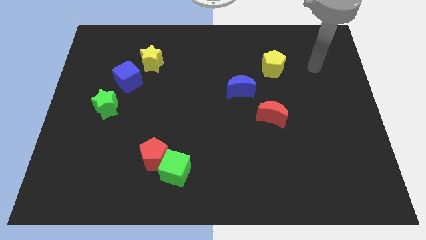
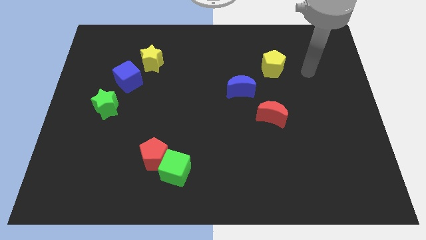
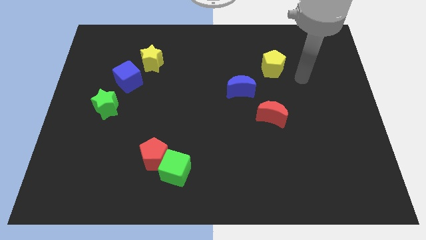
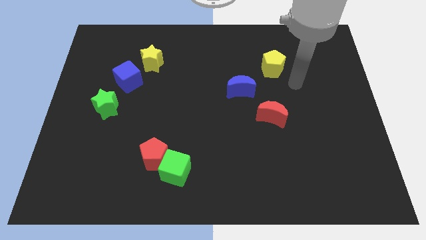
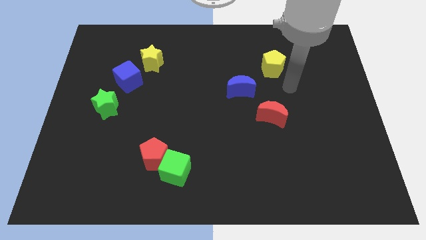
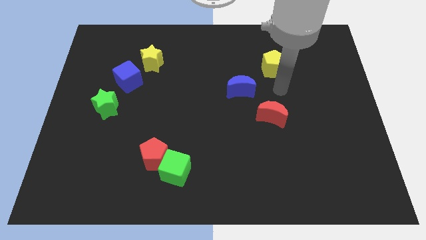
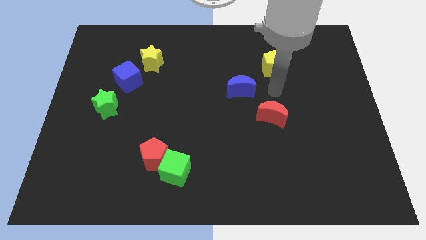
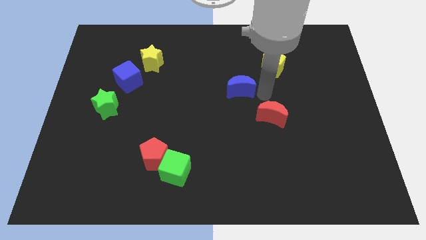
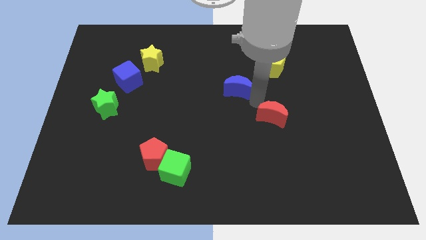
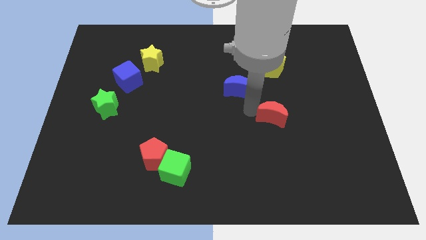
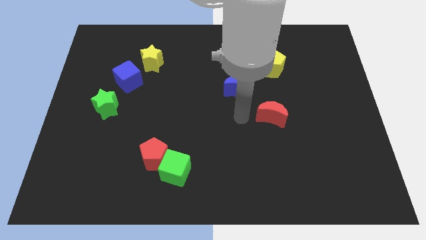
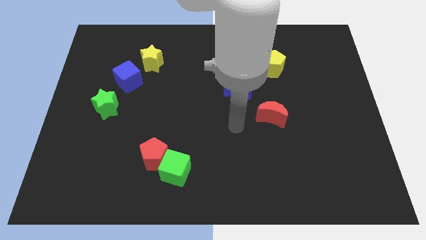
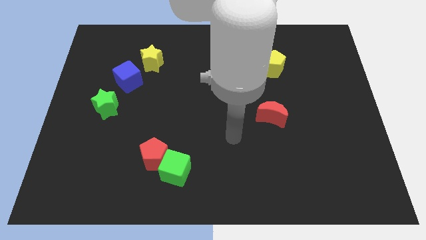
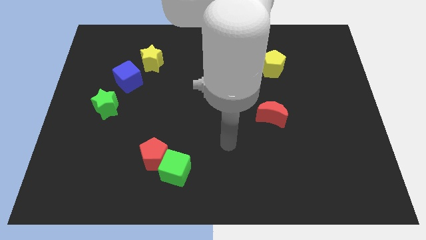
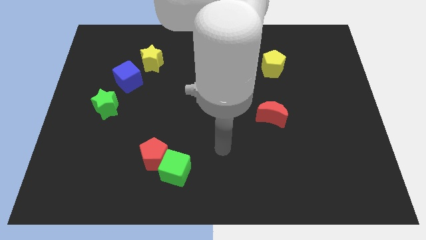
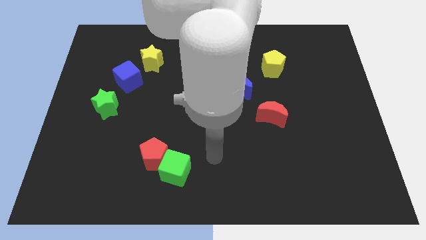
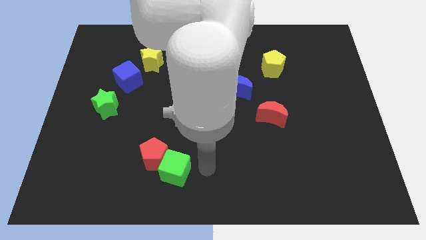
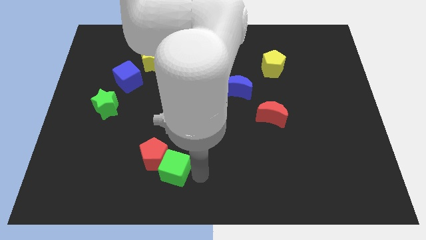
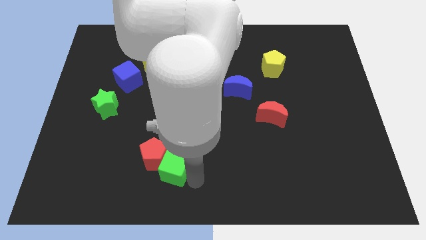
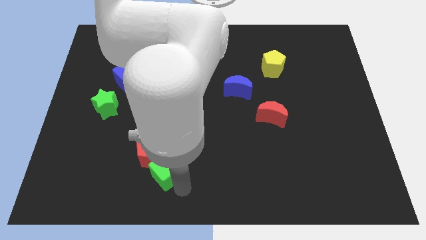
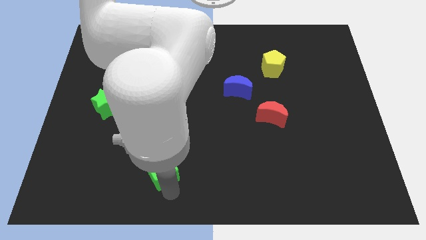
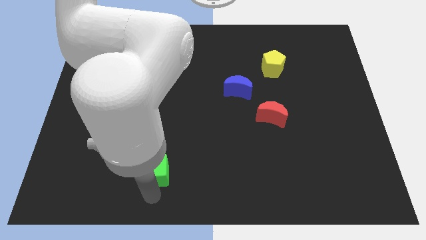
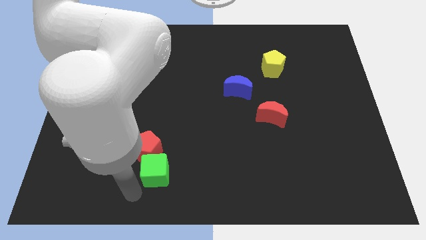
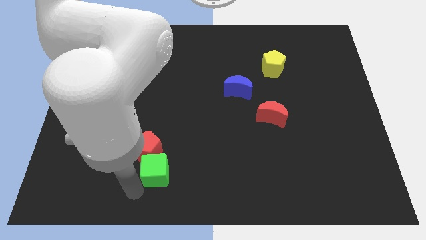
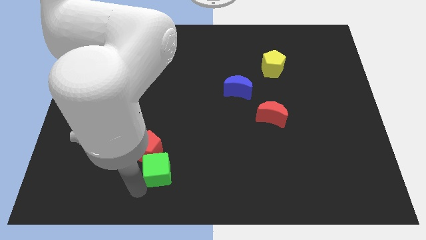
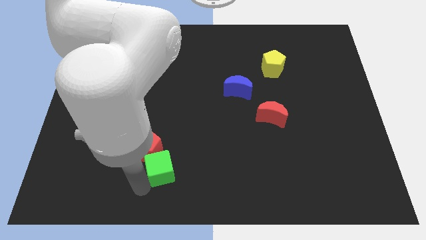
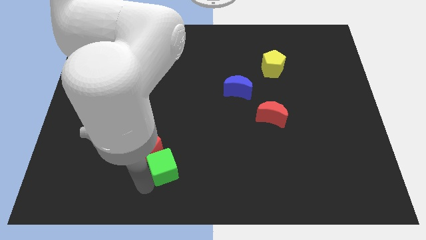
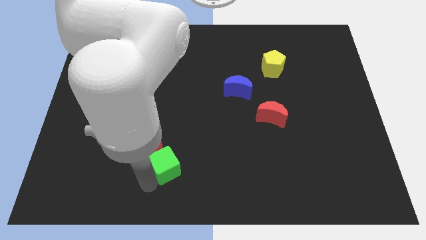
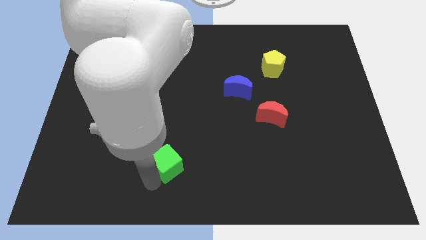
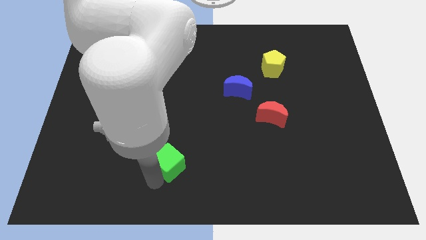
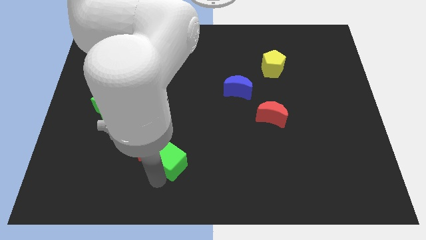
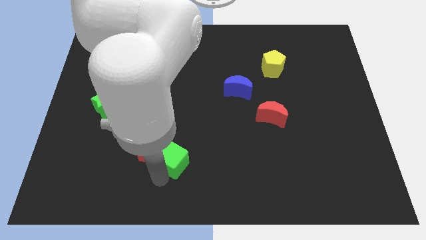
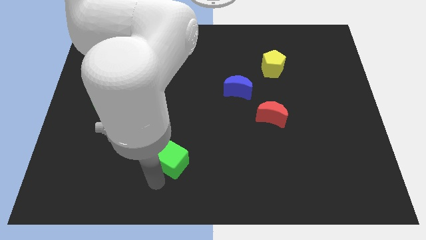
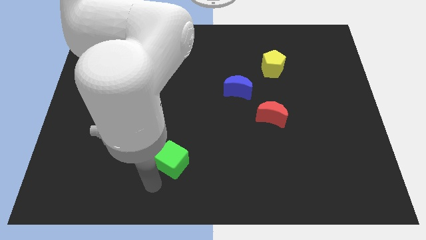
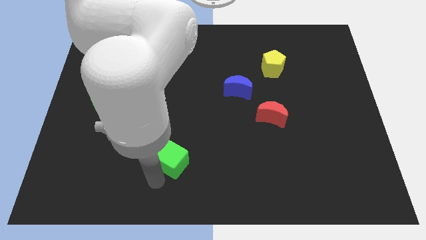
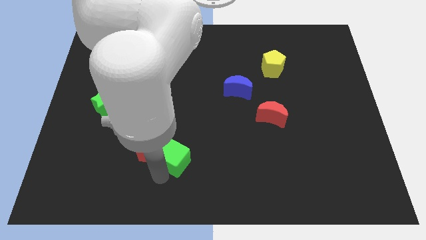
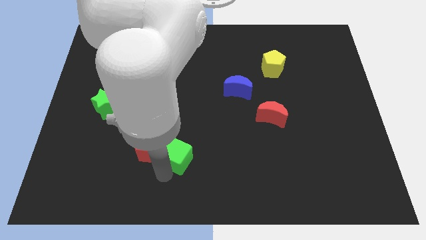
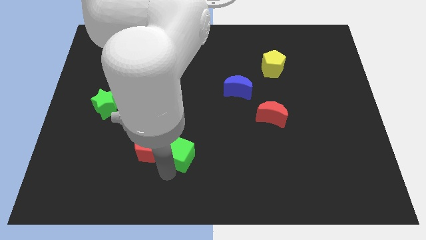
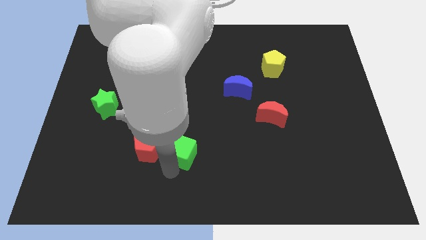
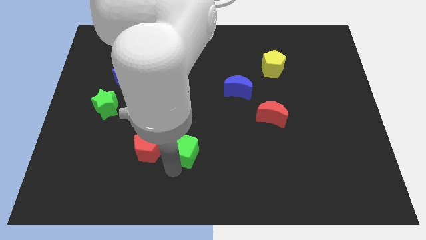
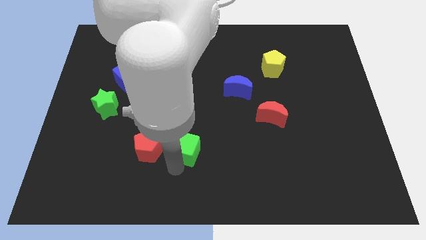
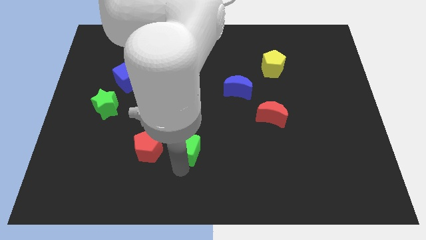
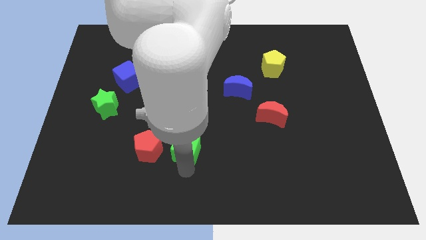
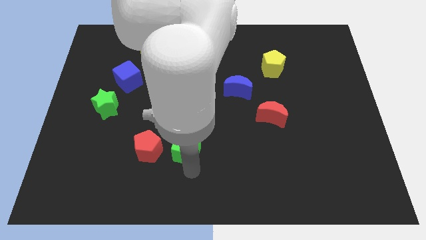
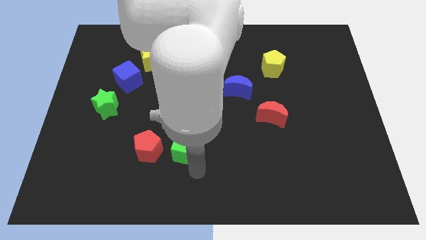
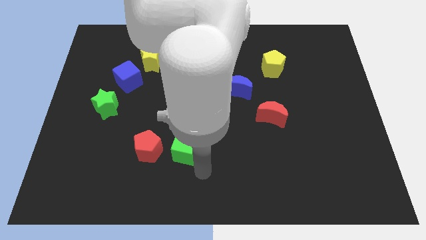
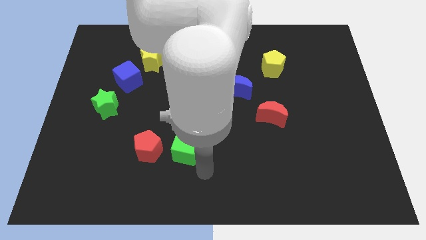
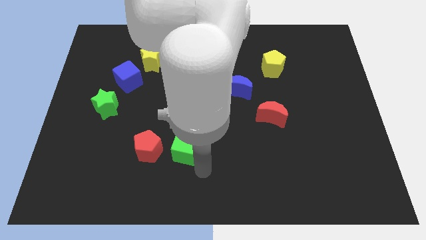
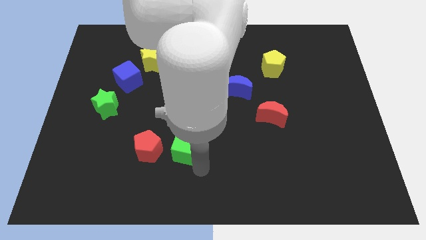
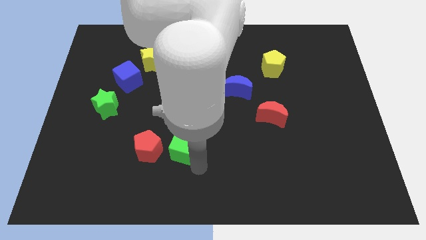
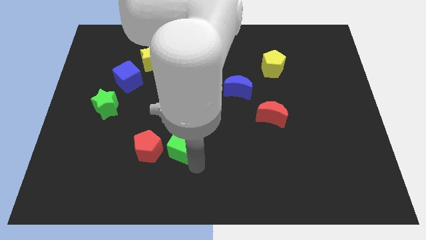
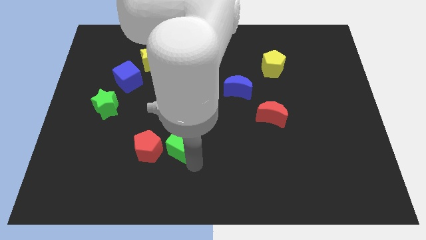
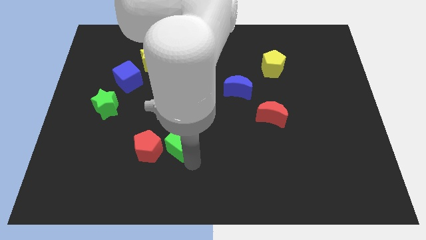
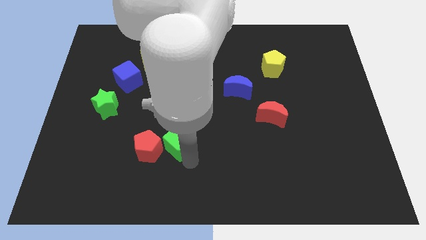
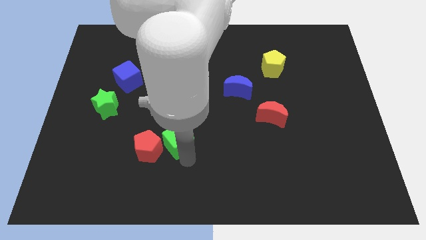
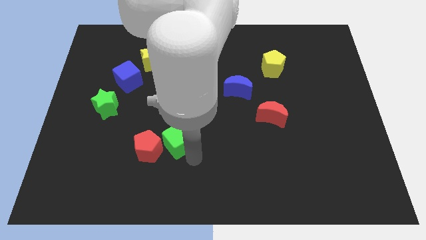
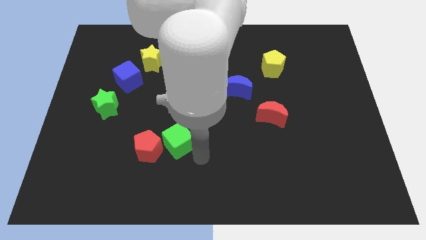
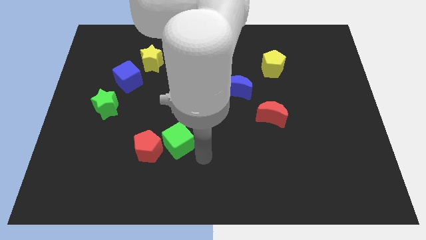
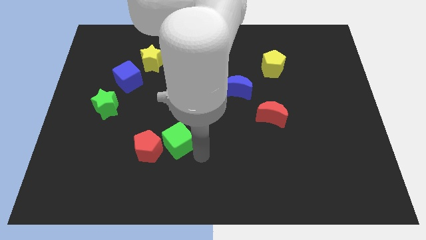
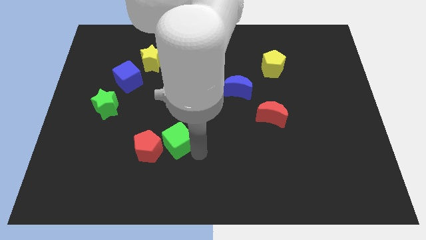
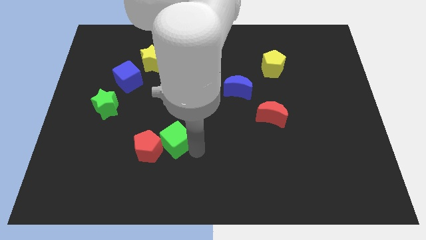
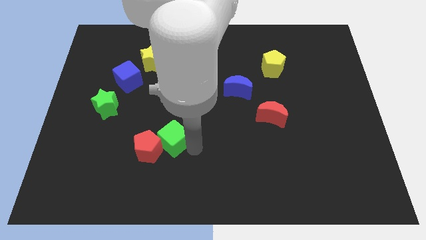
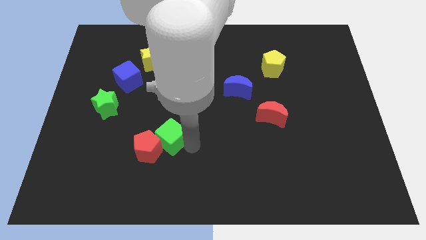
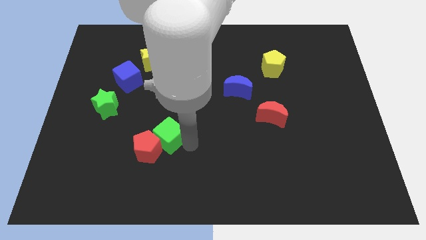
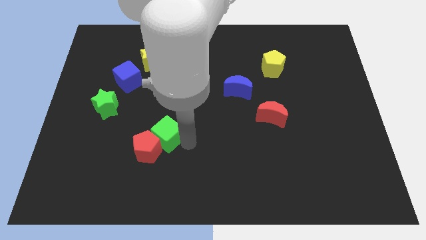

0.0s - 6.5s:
slide the green cube somewhat up and left diagonally

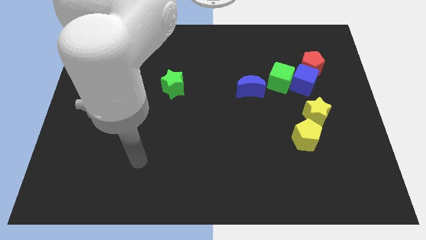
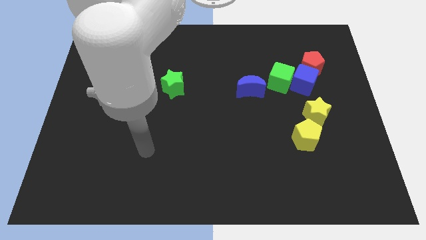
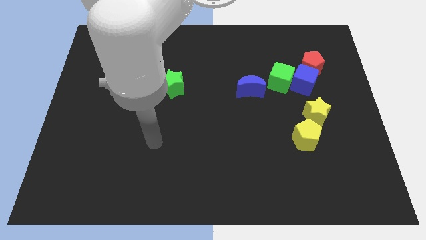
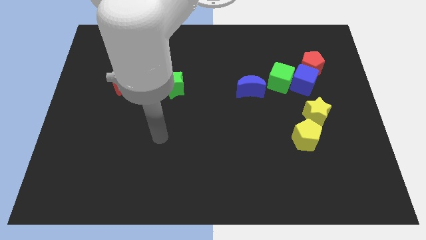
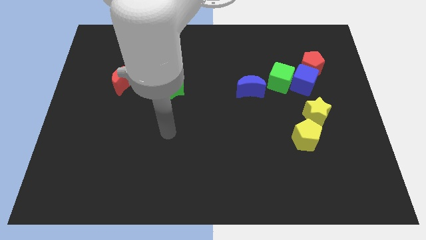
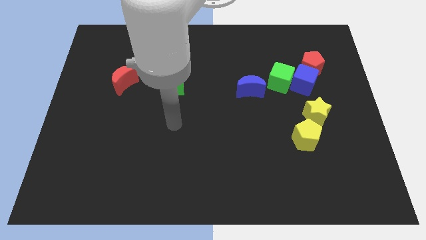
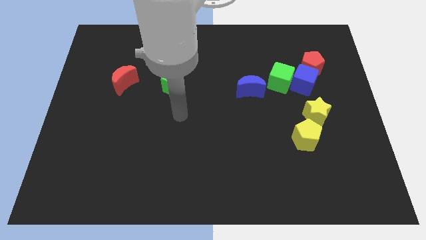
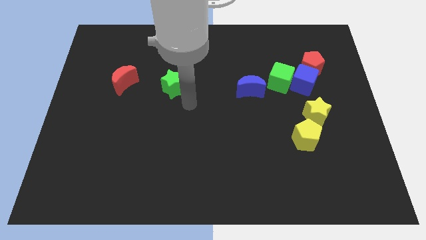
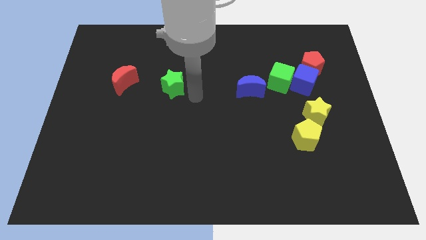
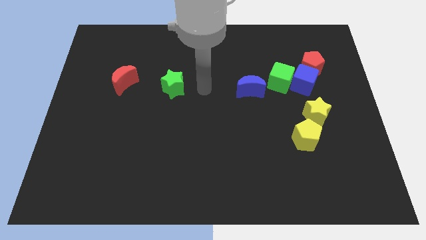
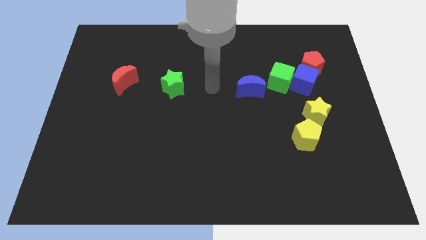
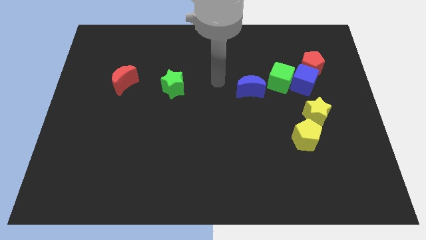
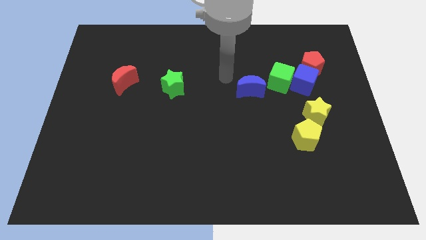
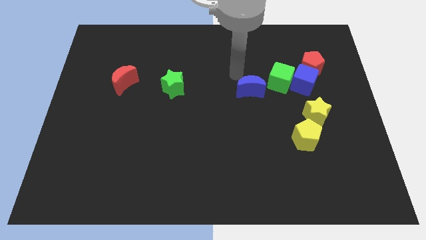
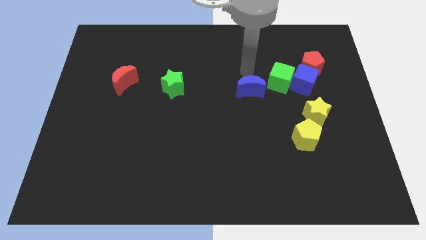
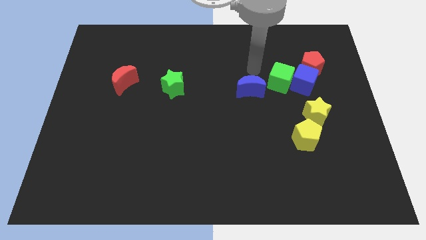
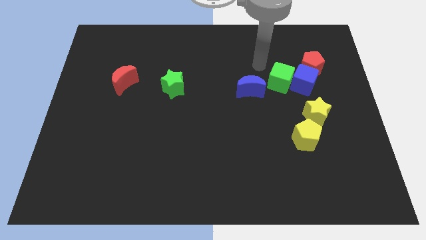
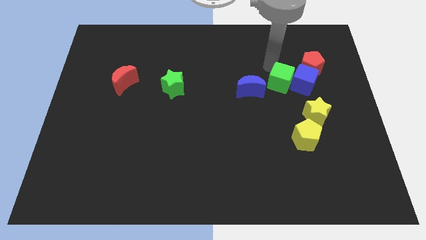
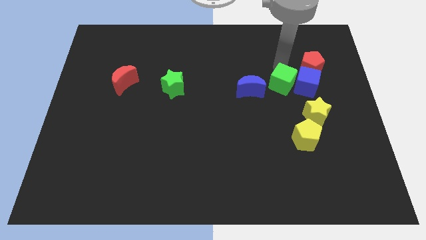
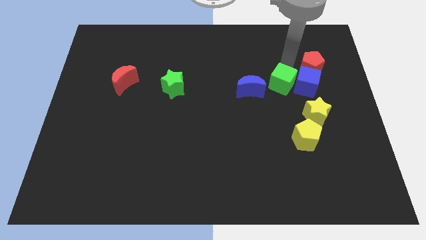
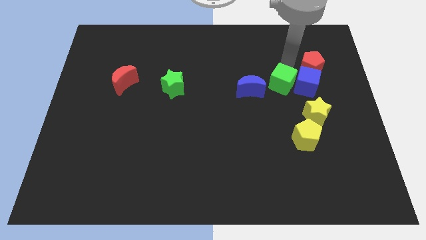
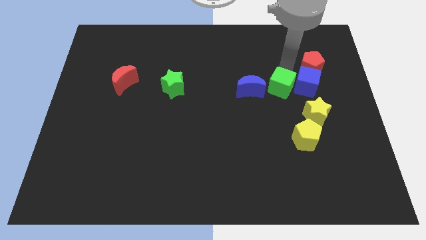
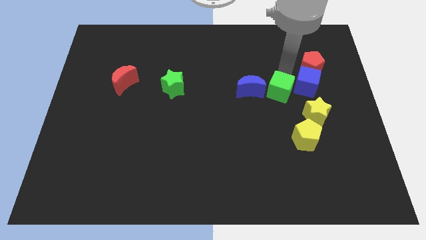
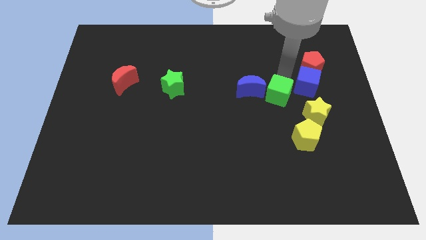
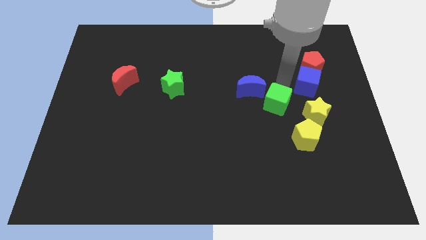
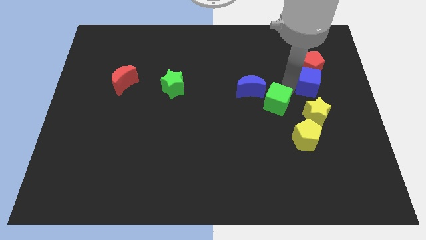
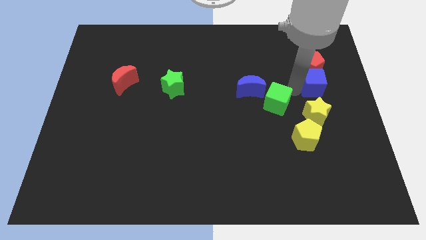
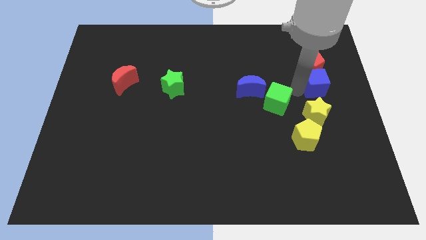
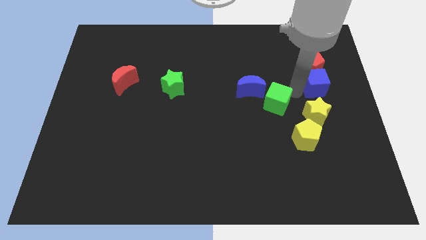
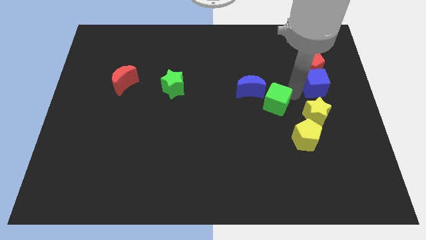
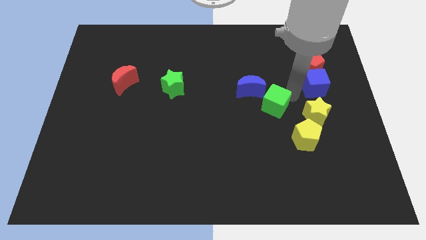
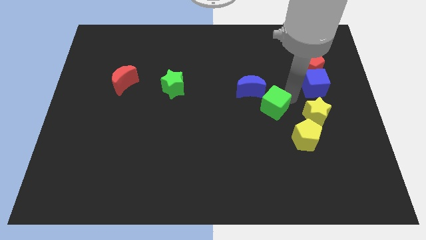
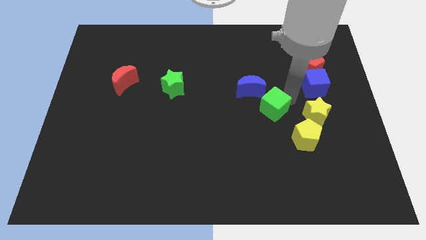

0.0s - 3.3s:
move the green cube slightly down and left diagonally
